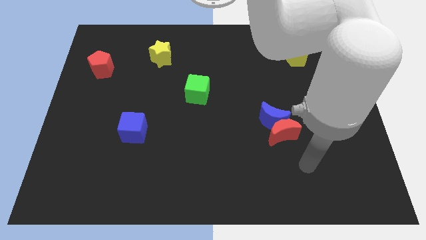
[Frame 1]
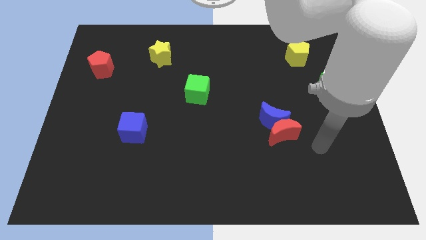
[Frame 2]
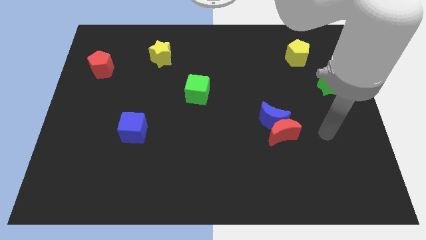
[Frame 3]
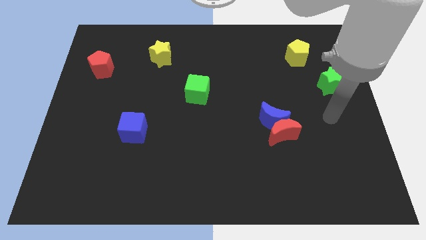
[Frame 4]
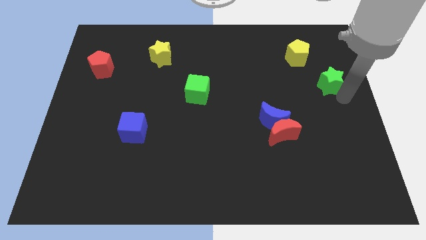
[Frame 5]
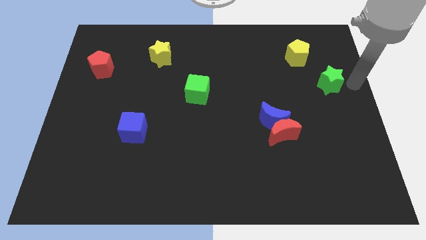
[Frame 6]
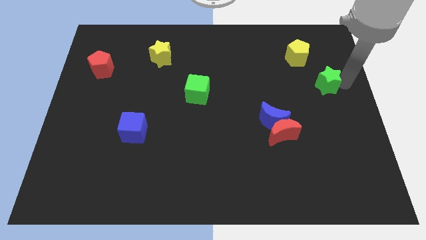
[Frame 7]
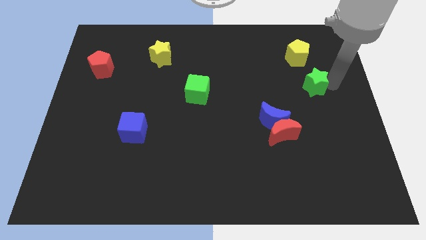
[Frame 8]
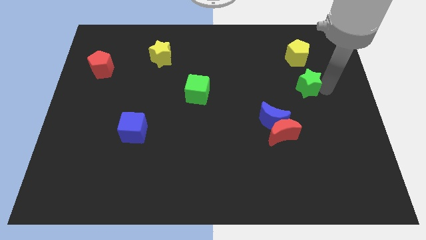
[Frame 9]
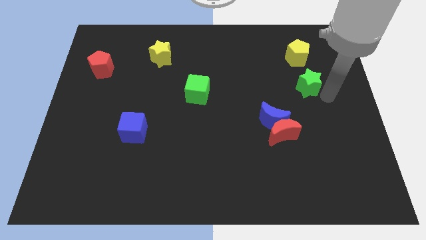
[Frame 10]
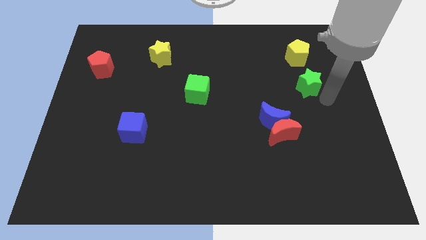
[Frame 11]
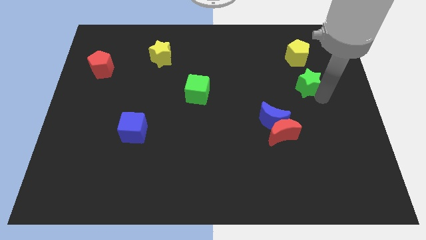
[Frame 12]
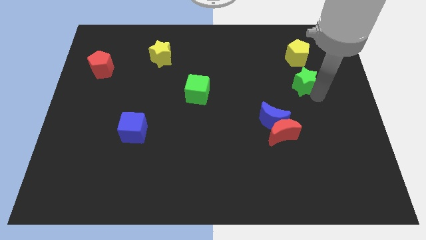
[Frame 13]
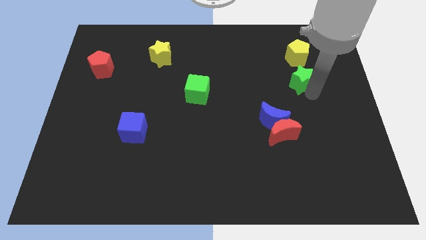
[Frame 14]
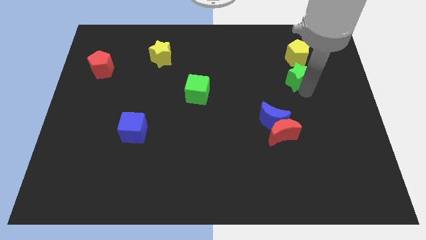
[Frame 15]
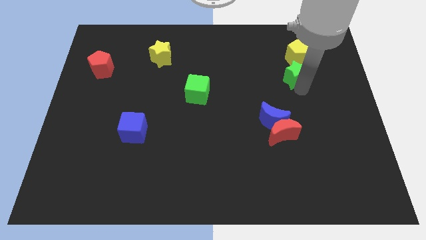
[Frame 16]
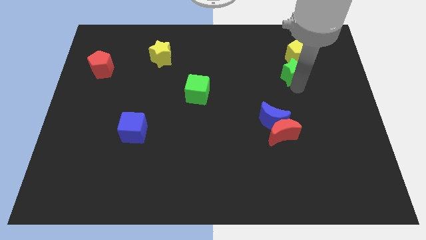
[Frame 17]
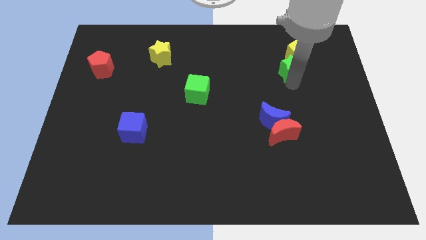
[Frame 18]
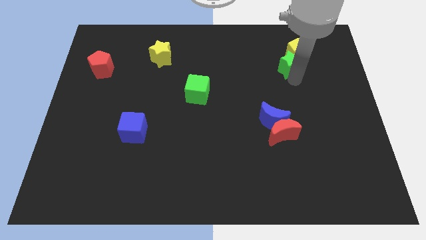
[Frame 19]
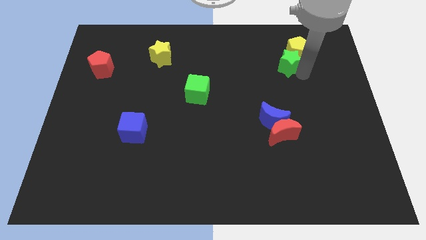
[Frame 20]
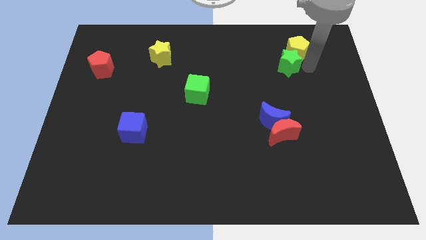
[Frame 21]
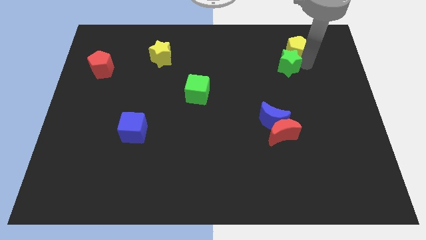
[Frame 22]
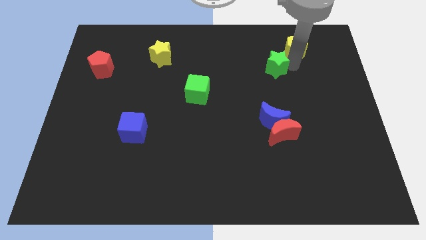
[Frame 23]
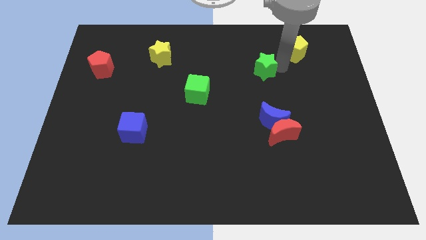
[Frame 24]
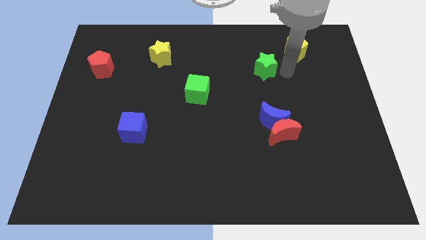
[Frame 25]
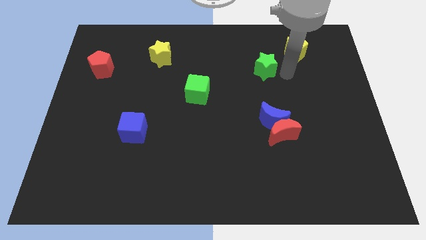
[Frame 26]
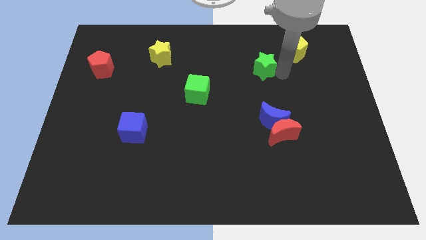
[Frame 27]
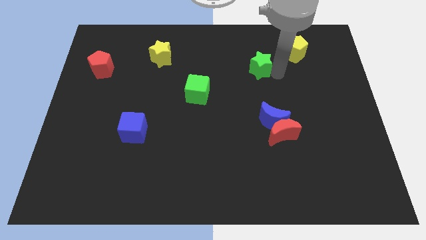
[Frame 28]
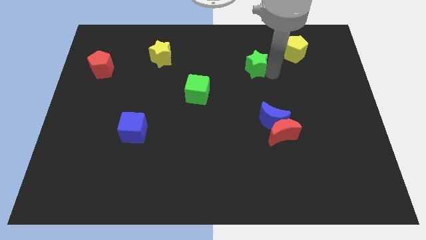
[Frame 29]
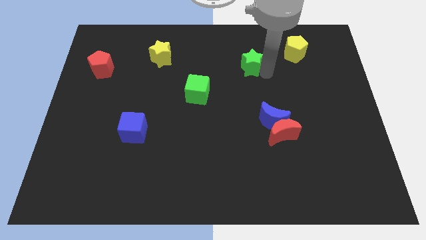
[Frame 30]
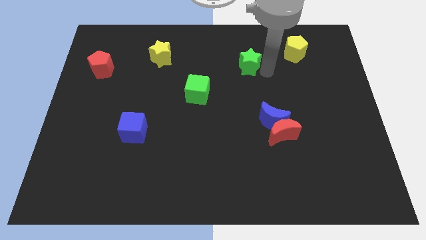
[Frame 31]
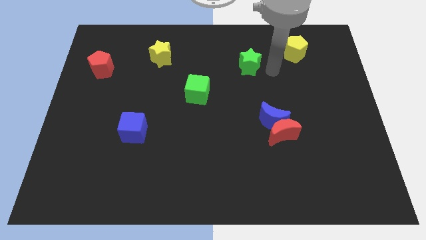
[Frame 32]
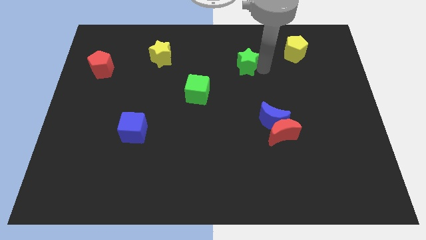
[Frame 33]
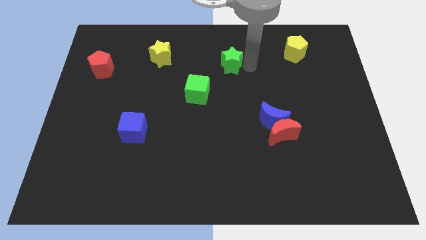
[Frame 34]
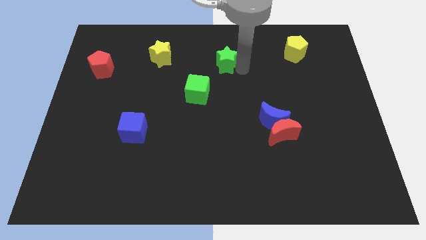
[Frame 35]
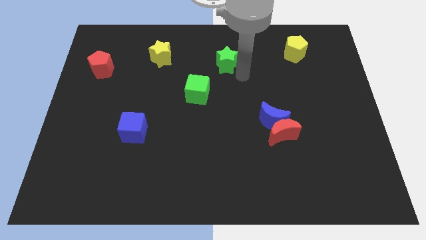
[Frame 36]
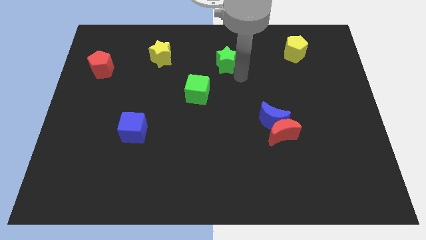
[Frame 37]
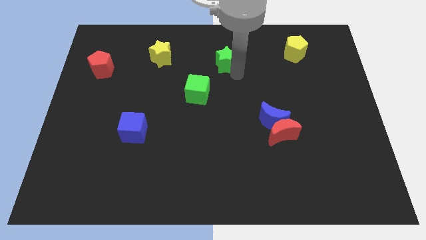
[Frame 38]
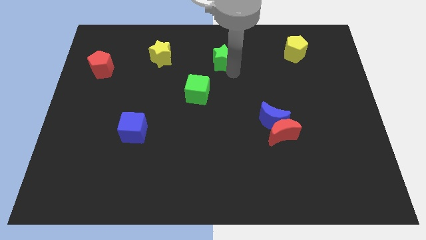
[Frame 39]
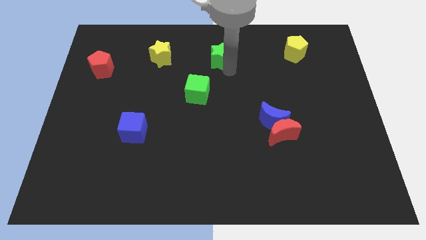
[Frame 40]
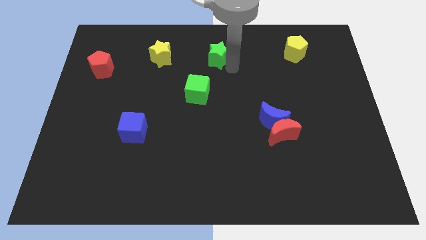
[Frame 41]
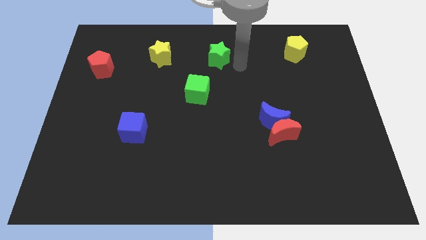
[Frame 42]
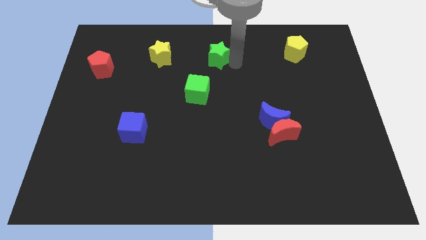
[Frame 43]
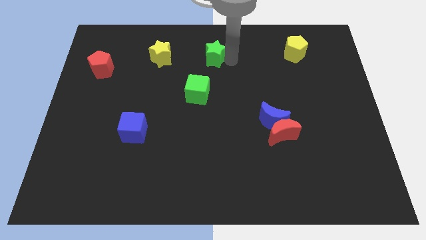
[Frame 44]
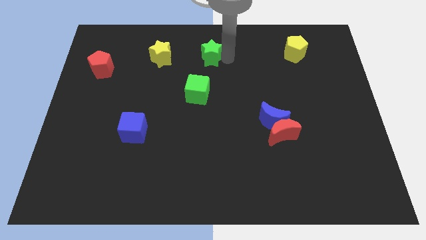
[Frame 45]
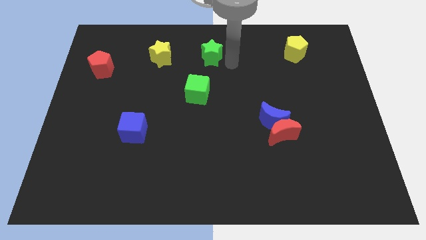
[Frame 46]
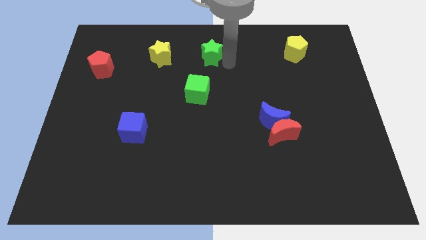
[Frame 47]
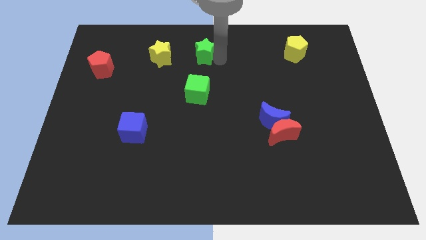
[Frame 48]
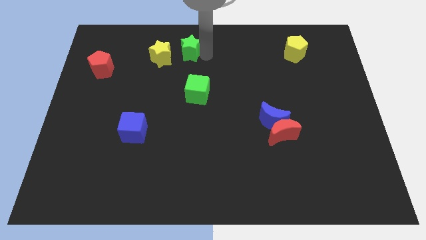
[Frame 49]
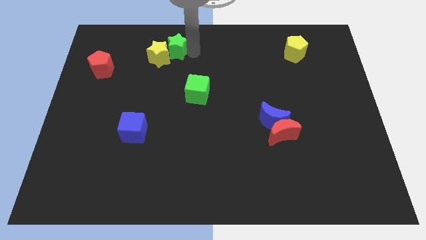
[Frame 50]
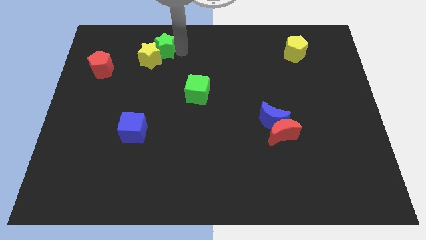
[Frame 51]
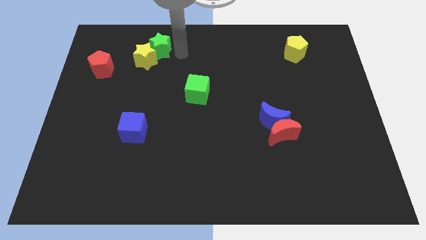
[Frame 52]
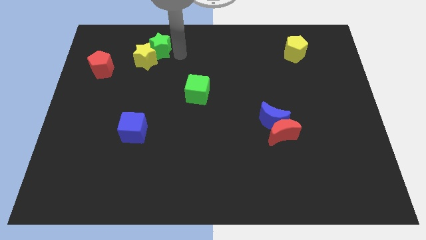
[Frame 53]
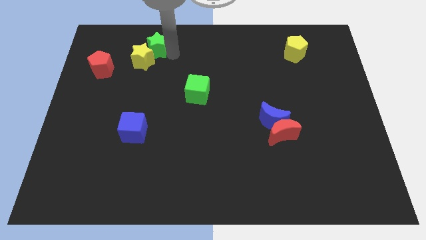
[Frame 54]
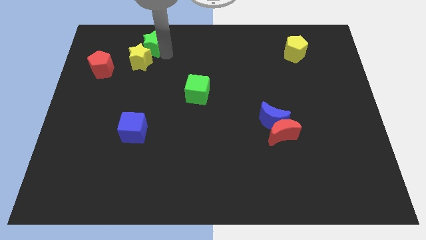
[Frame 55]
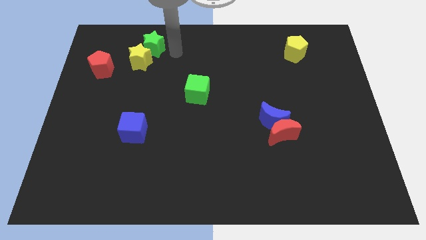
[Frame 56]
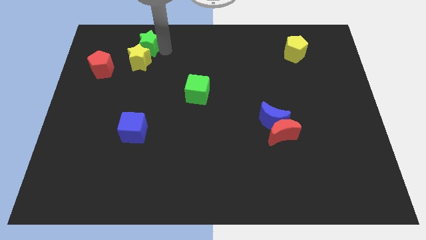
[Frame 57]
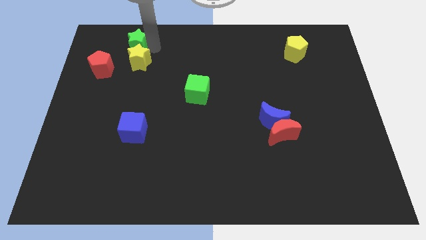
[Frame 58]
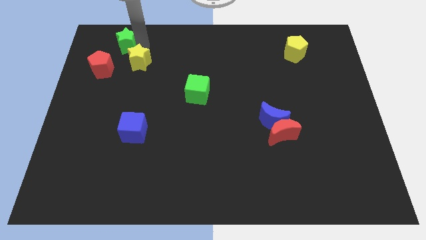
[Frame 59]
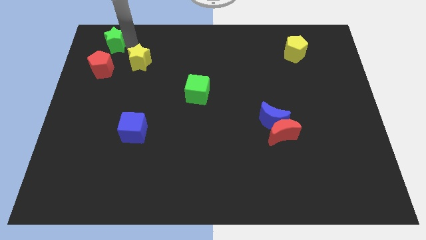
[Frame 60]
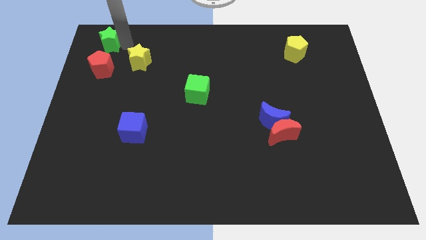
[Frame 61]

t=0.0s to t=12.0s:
slide the green star to the top left of the board

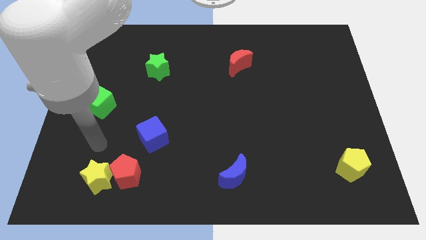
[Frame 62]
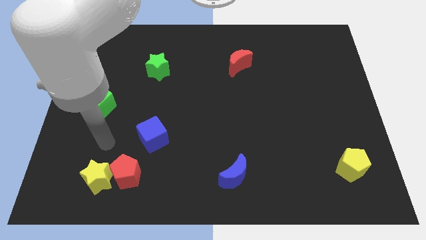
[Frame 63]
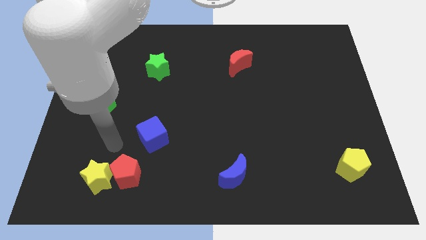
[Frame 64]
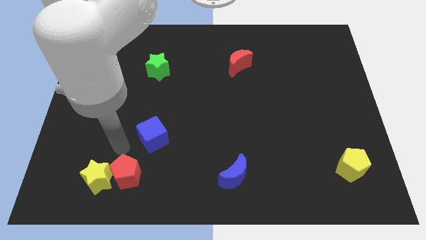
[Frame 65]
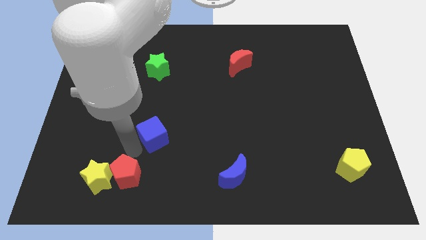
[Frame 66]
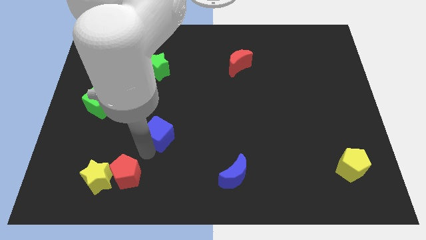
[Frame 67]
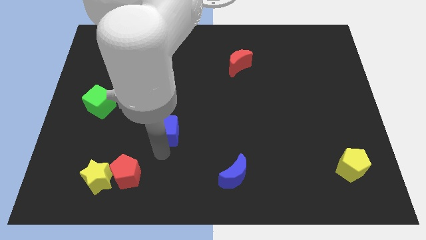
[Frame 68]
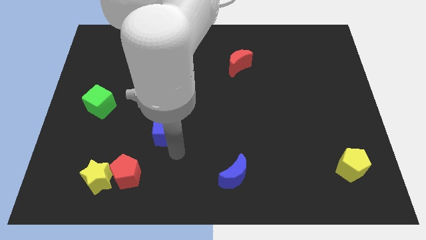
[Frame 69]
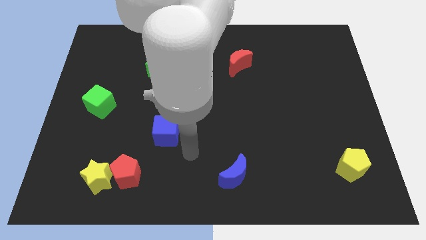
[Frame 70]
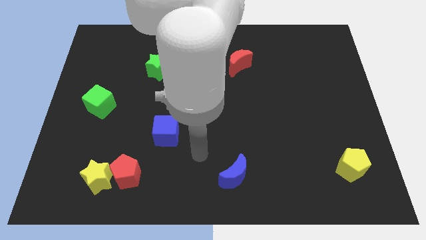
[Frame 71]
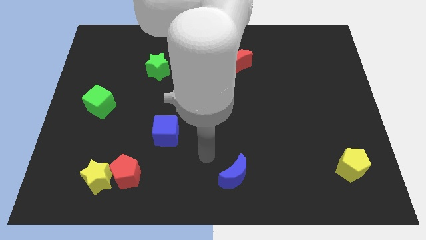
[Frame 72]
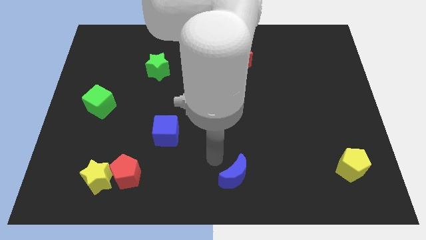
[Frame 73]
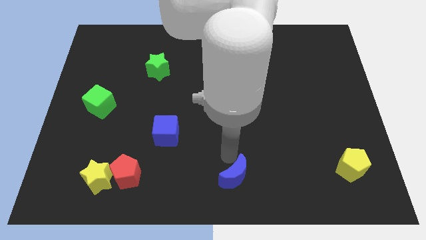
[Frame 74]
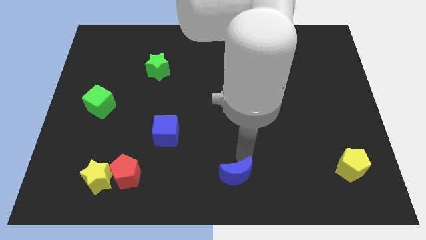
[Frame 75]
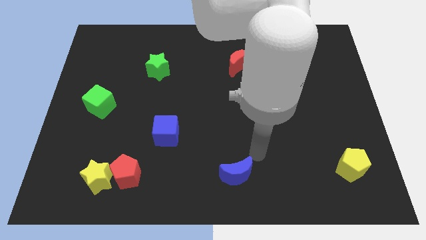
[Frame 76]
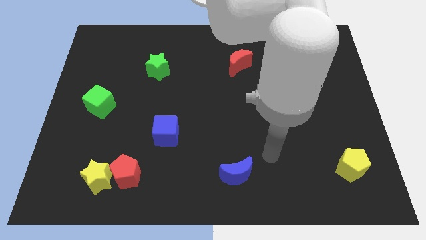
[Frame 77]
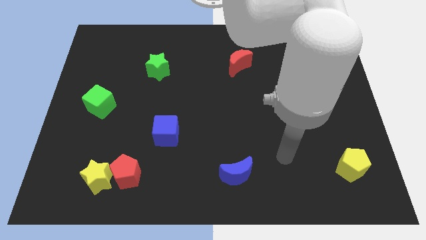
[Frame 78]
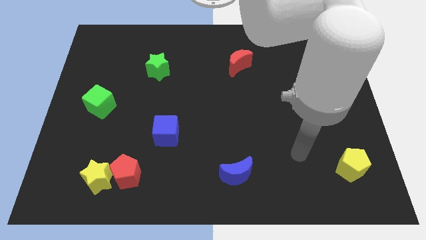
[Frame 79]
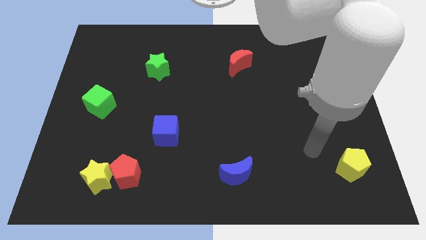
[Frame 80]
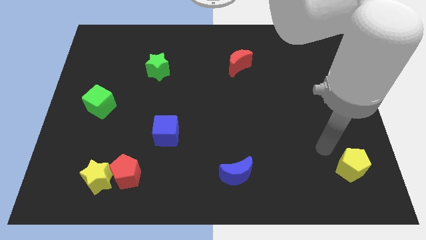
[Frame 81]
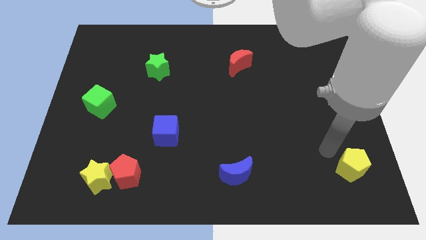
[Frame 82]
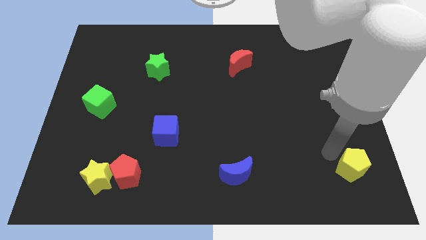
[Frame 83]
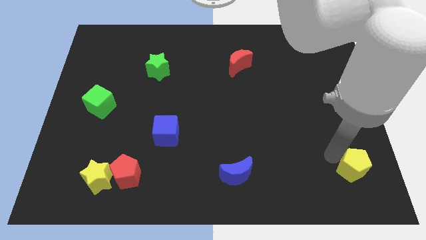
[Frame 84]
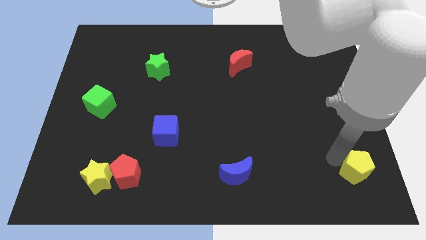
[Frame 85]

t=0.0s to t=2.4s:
move the yellow pentagon to the bottom right of the board

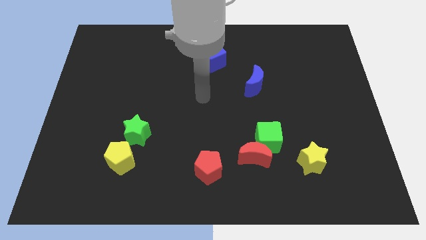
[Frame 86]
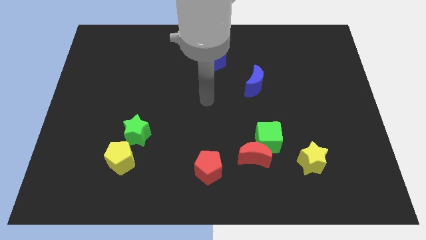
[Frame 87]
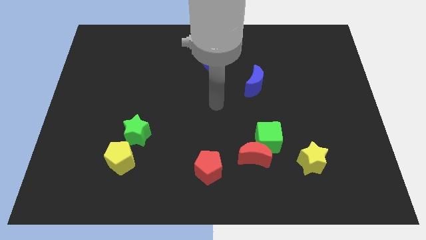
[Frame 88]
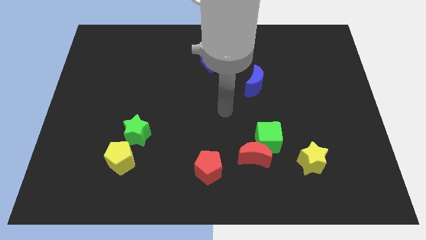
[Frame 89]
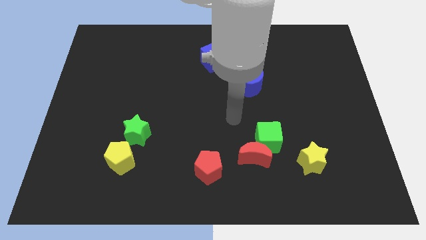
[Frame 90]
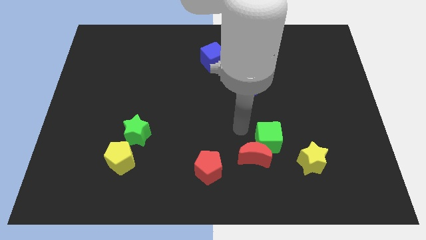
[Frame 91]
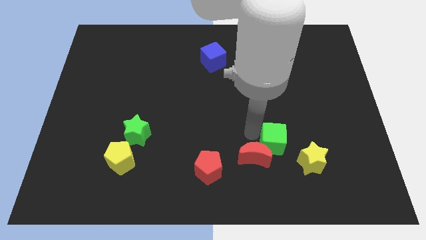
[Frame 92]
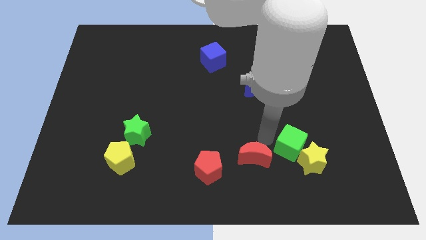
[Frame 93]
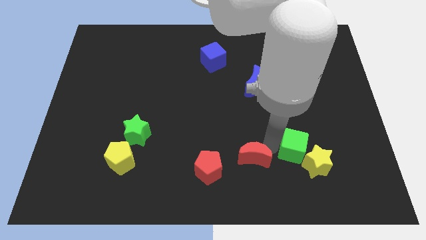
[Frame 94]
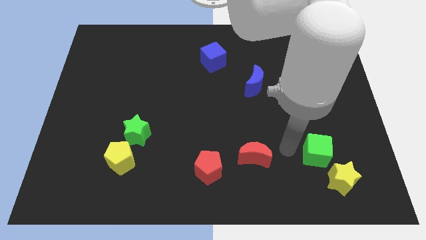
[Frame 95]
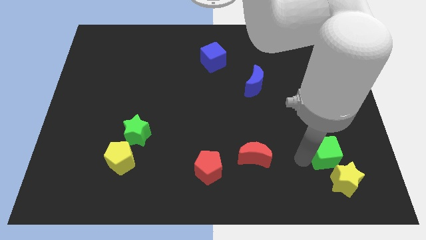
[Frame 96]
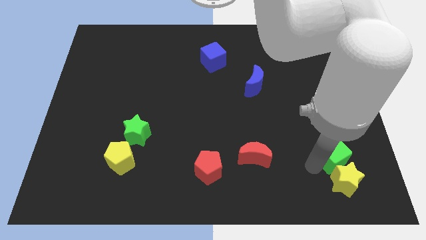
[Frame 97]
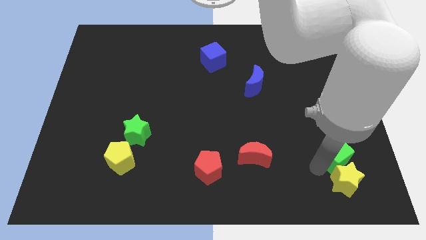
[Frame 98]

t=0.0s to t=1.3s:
put the yellow star to the bottom right of the board
